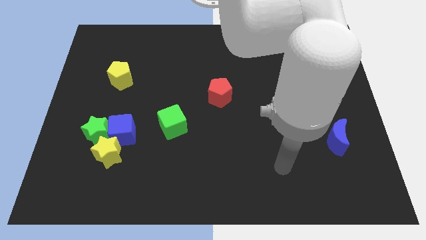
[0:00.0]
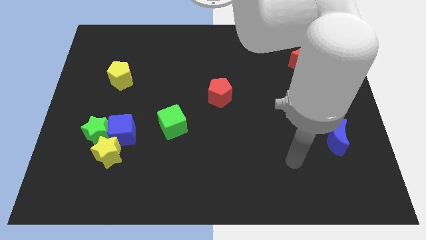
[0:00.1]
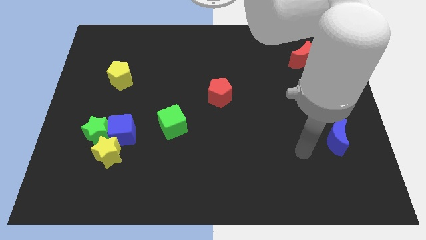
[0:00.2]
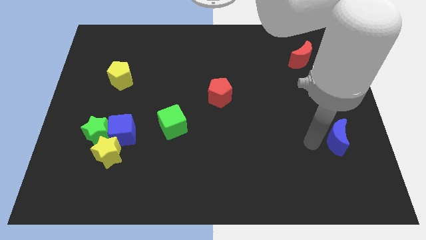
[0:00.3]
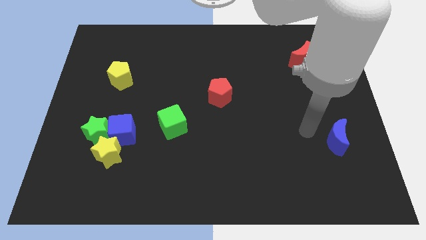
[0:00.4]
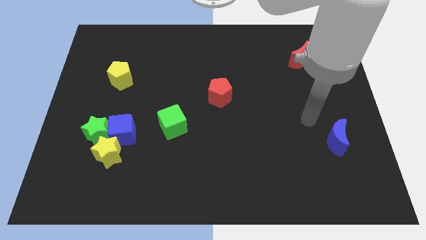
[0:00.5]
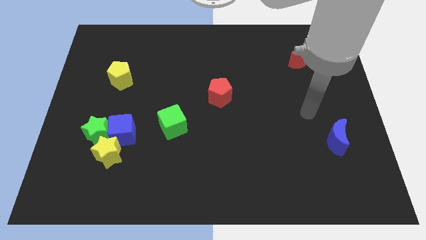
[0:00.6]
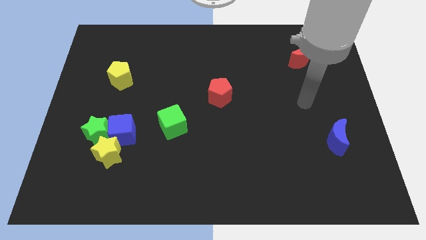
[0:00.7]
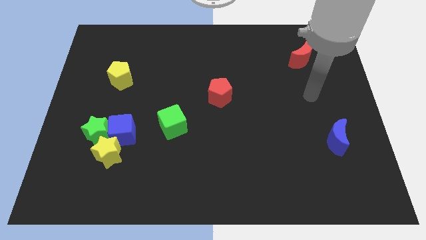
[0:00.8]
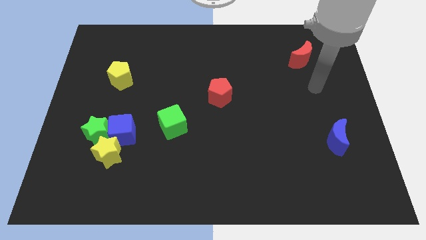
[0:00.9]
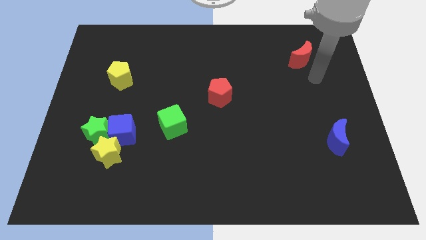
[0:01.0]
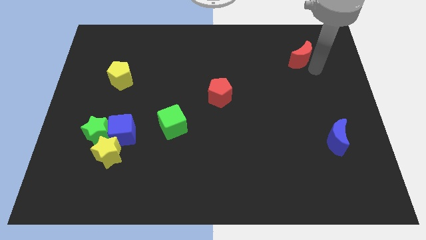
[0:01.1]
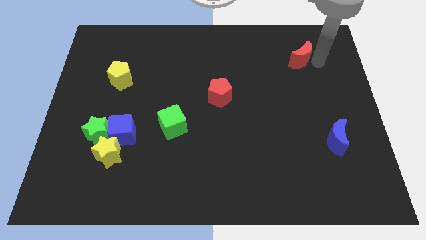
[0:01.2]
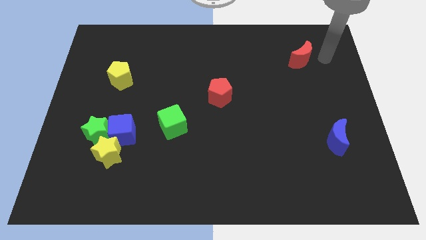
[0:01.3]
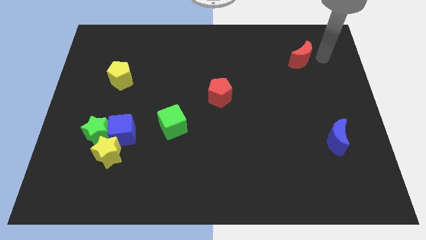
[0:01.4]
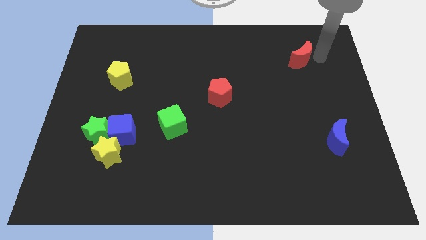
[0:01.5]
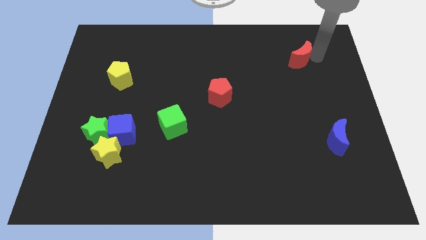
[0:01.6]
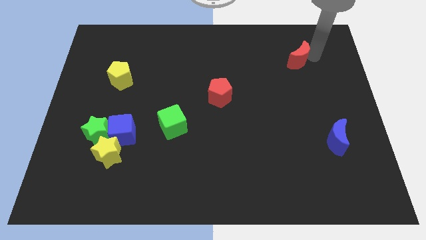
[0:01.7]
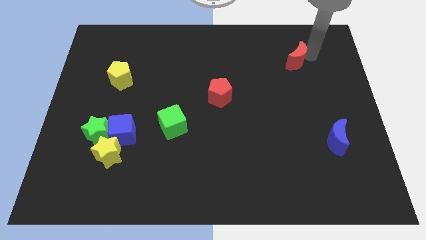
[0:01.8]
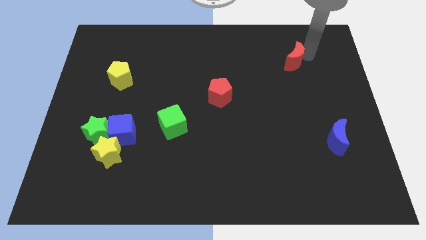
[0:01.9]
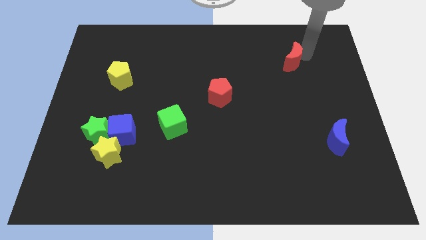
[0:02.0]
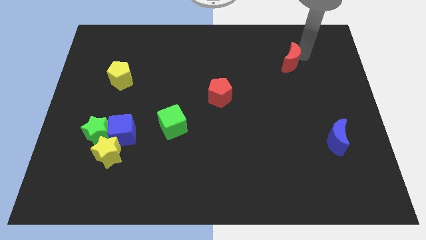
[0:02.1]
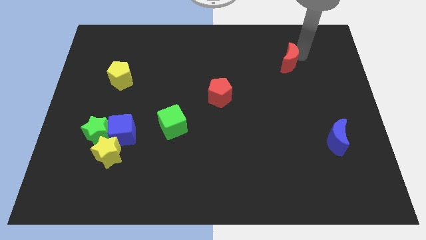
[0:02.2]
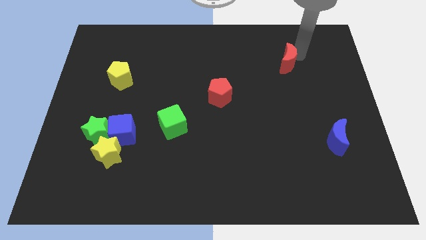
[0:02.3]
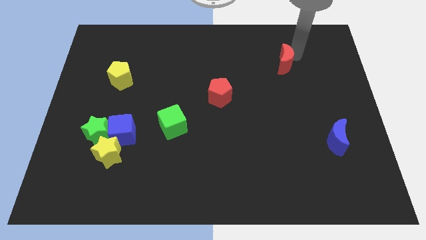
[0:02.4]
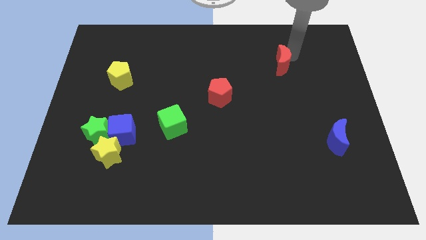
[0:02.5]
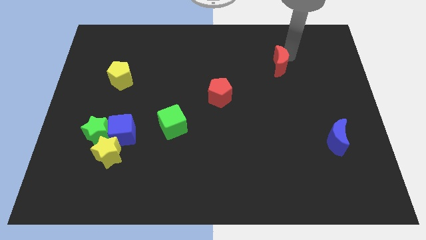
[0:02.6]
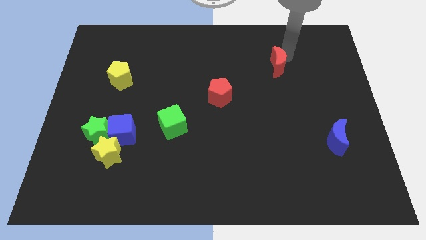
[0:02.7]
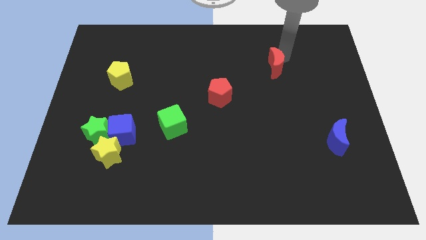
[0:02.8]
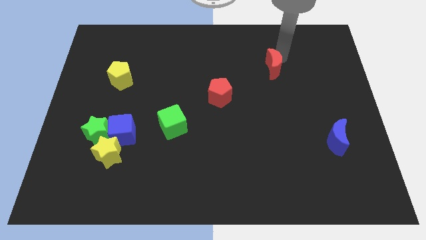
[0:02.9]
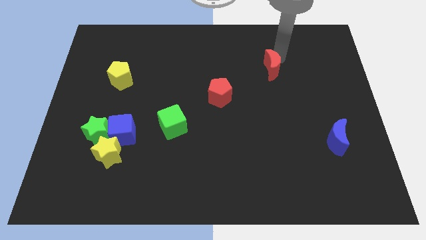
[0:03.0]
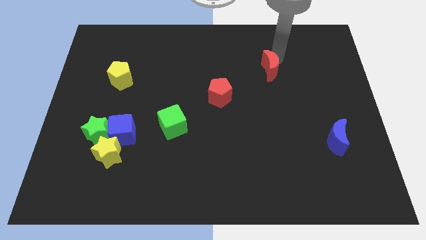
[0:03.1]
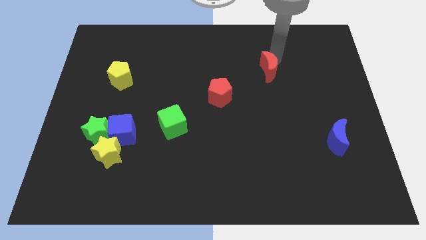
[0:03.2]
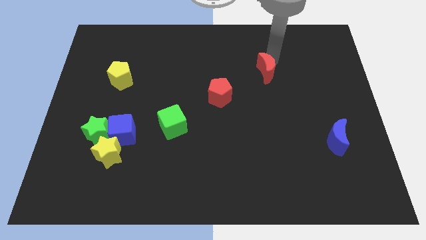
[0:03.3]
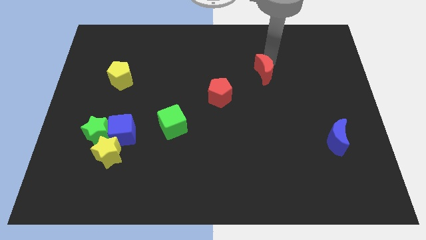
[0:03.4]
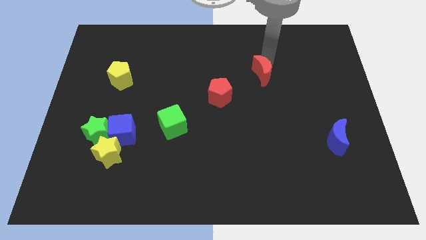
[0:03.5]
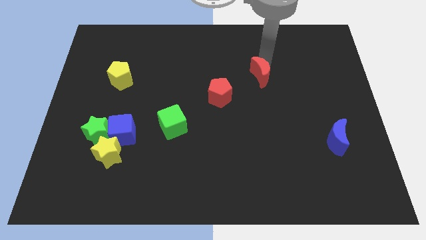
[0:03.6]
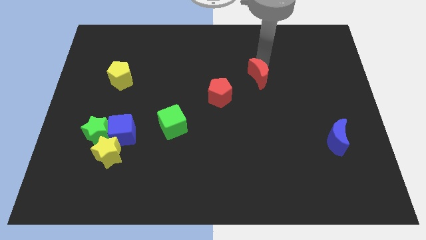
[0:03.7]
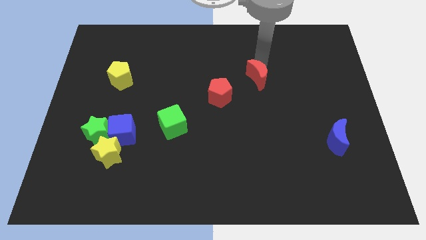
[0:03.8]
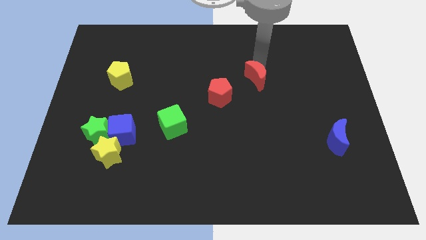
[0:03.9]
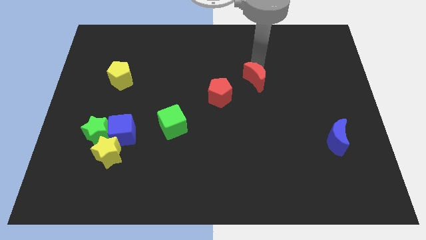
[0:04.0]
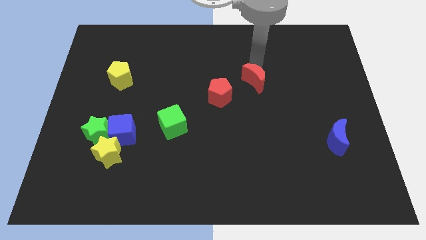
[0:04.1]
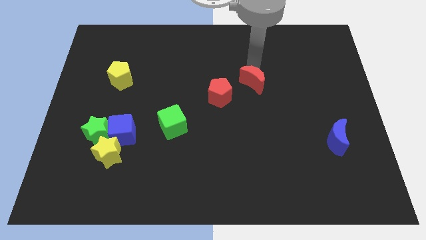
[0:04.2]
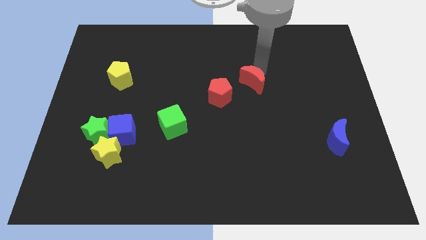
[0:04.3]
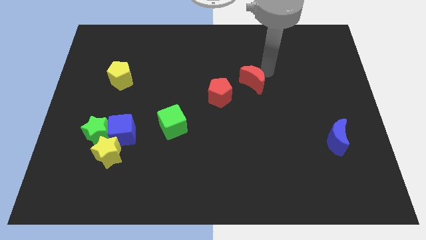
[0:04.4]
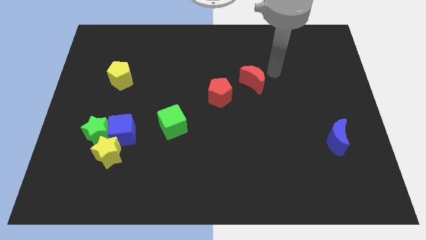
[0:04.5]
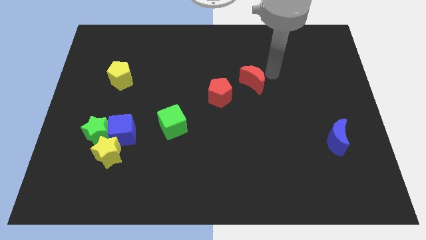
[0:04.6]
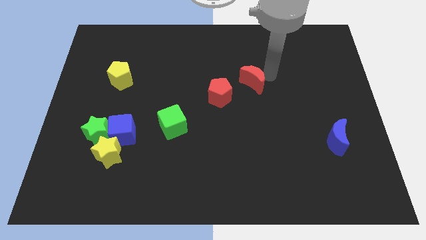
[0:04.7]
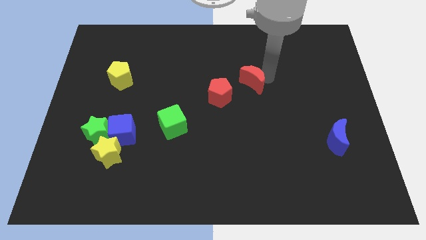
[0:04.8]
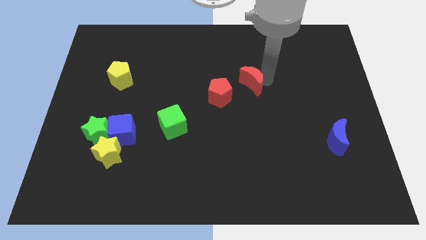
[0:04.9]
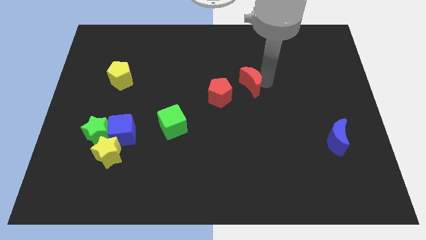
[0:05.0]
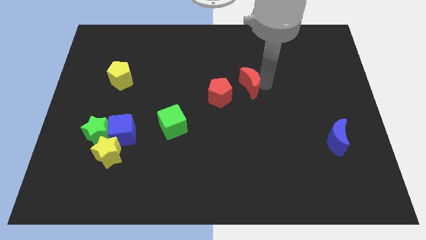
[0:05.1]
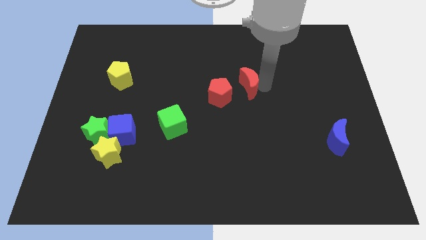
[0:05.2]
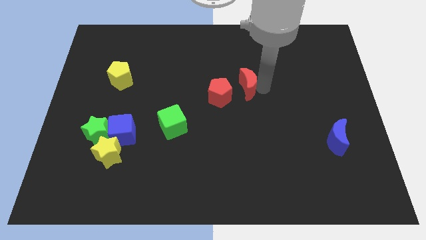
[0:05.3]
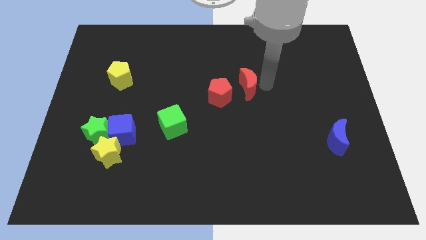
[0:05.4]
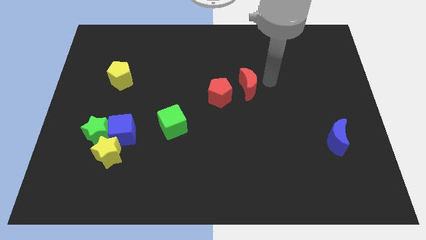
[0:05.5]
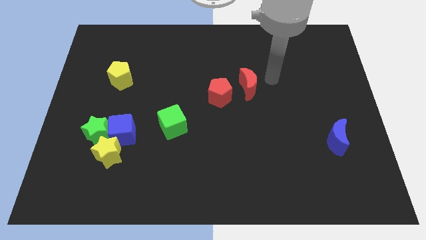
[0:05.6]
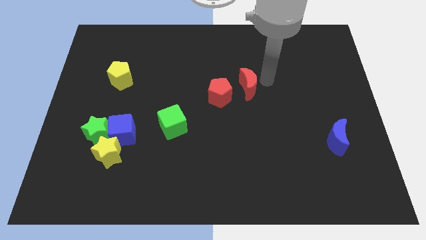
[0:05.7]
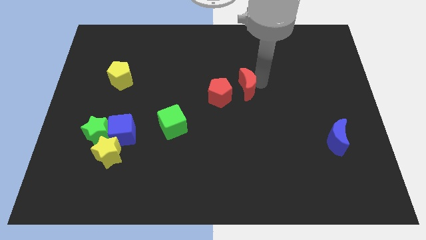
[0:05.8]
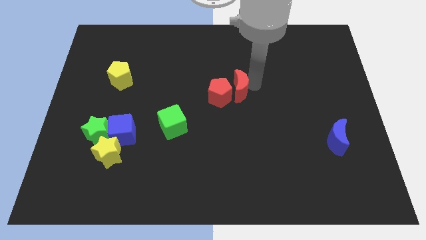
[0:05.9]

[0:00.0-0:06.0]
push the red moon close to the red pentagon
